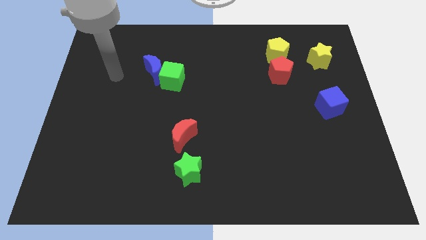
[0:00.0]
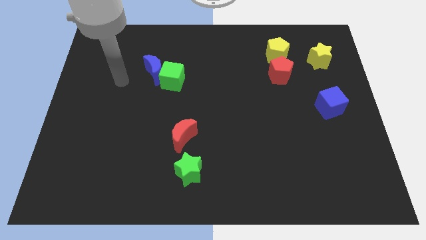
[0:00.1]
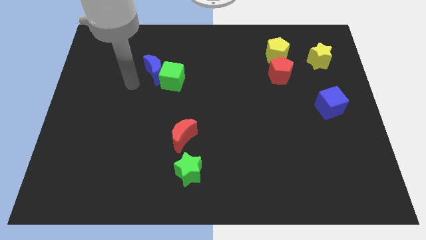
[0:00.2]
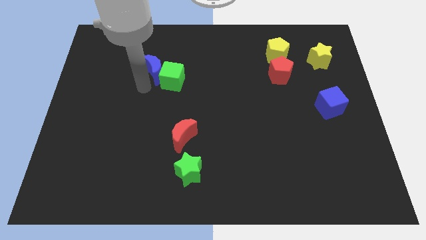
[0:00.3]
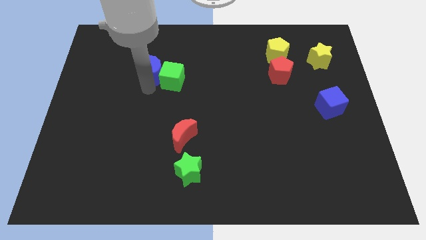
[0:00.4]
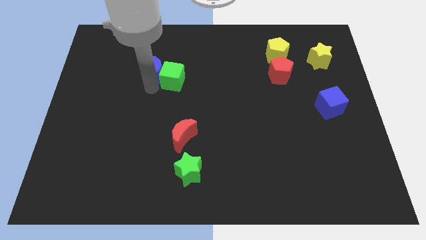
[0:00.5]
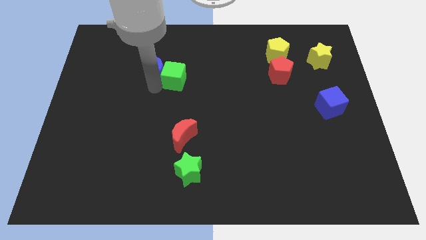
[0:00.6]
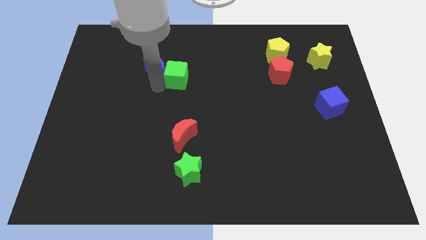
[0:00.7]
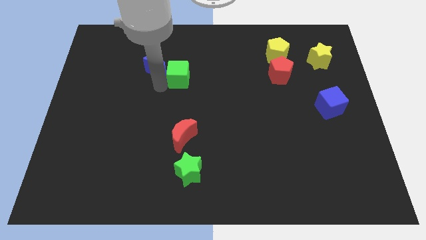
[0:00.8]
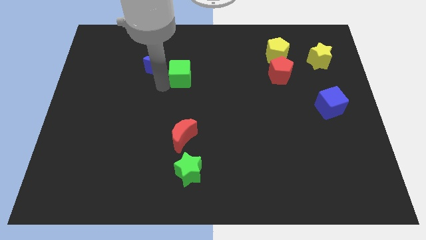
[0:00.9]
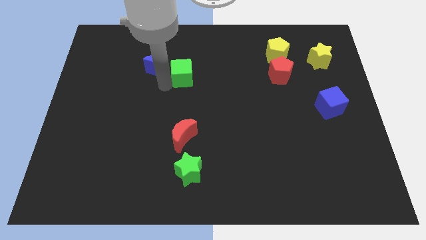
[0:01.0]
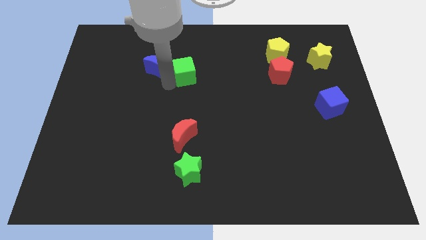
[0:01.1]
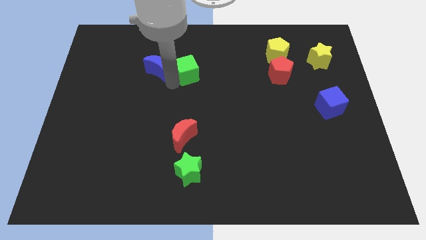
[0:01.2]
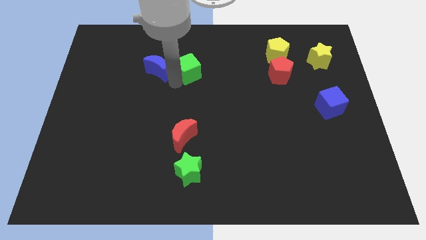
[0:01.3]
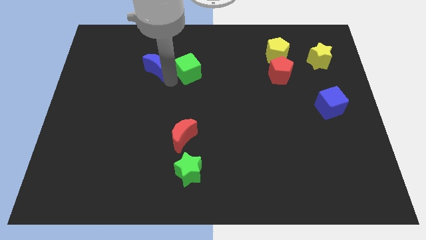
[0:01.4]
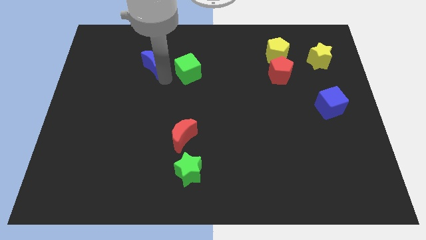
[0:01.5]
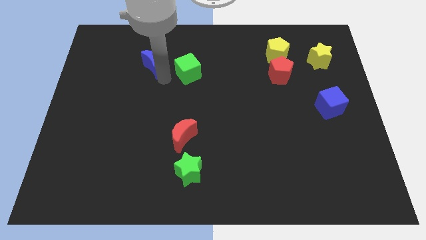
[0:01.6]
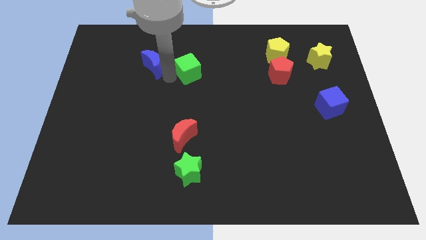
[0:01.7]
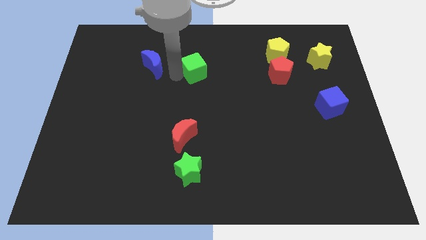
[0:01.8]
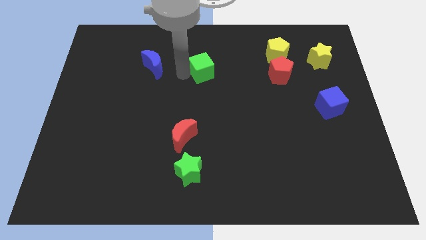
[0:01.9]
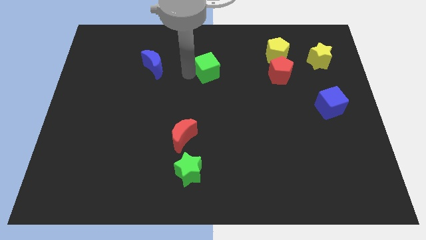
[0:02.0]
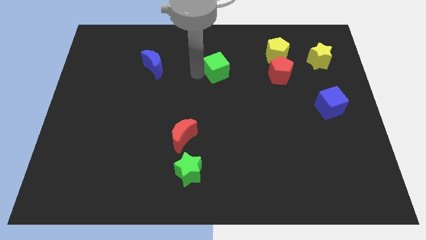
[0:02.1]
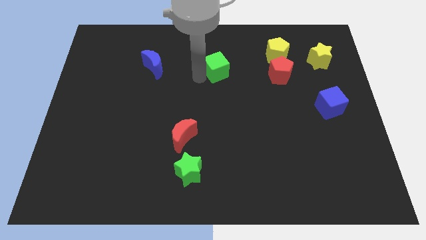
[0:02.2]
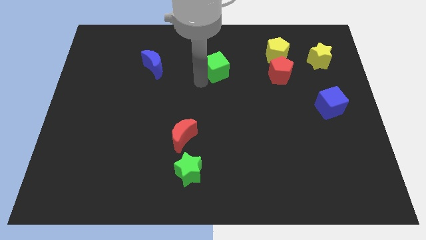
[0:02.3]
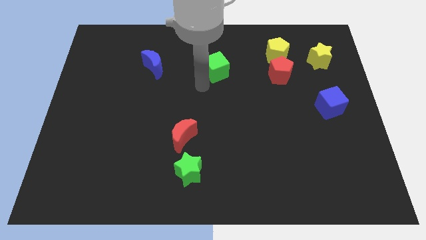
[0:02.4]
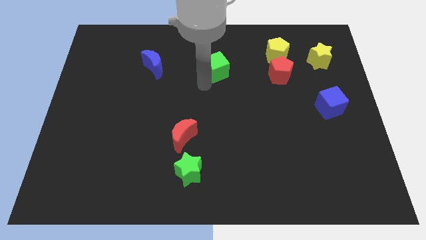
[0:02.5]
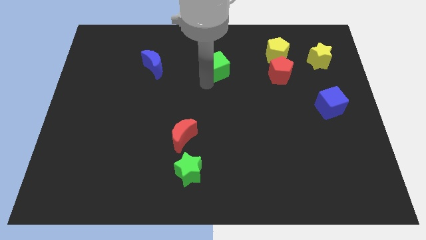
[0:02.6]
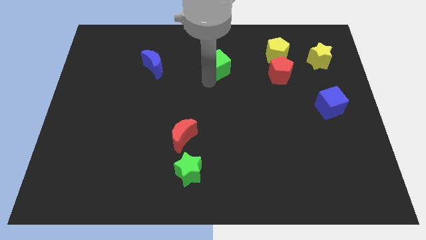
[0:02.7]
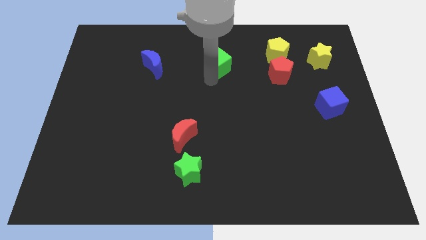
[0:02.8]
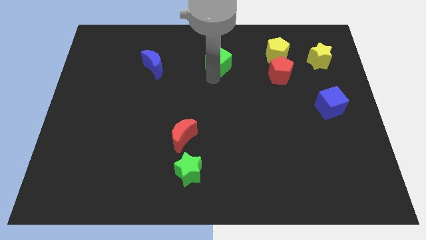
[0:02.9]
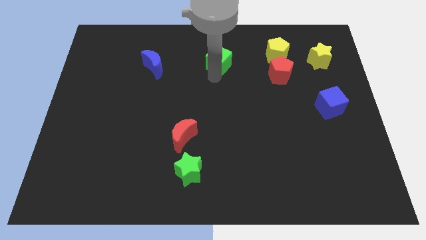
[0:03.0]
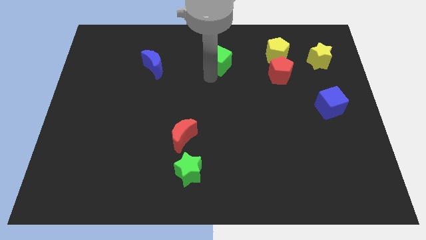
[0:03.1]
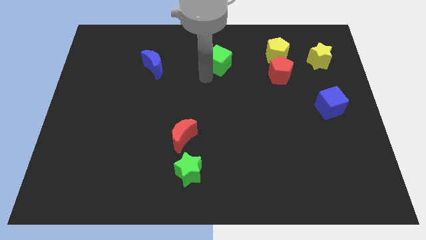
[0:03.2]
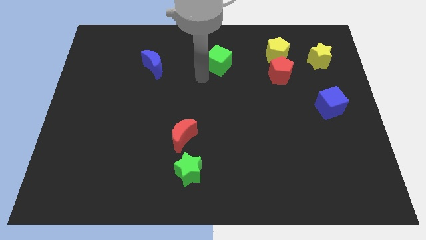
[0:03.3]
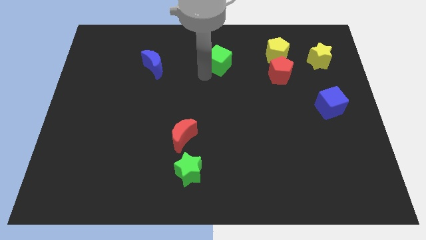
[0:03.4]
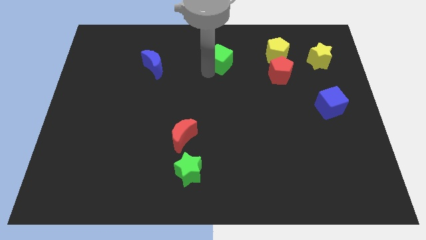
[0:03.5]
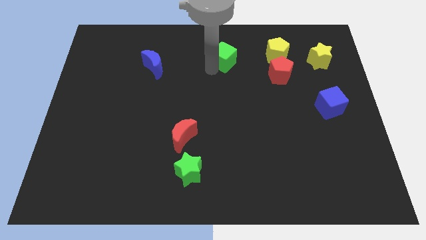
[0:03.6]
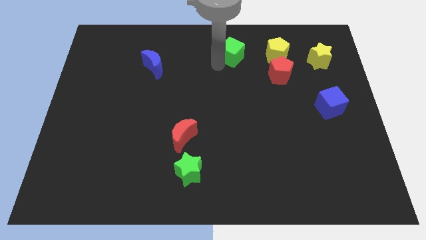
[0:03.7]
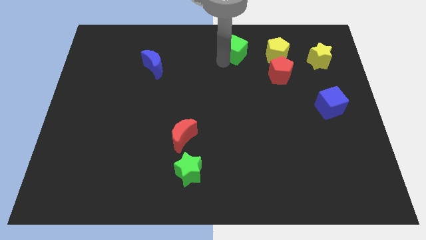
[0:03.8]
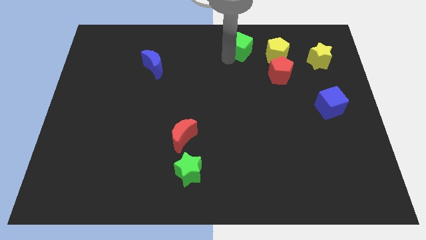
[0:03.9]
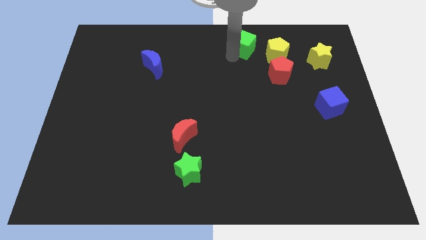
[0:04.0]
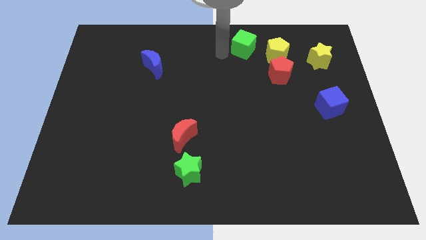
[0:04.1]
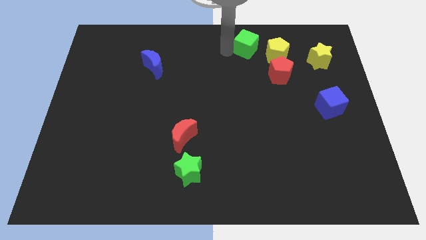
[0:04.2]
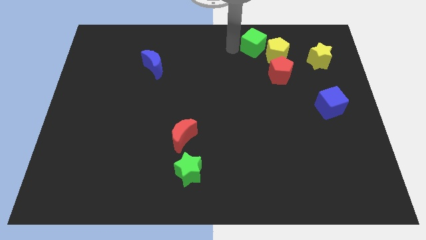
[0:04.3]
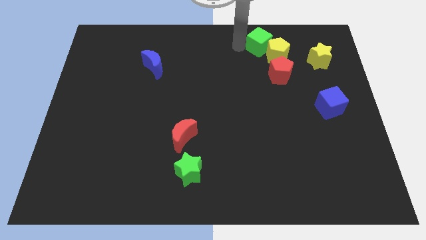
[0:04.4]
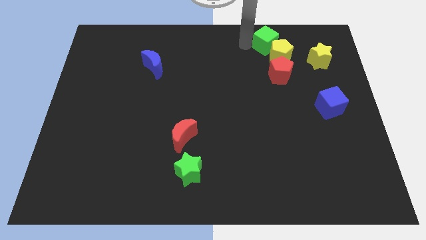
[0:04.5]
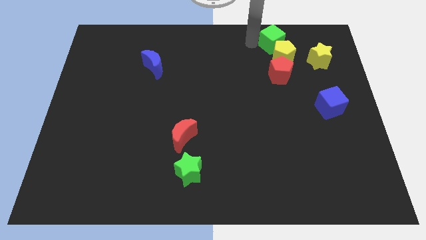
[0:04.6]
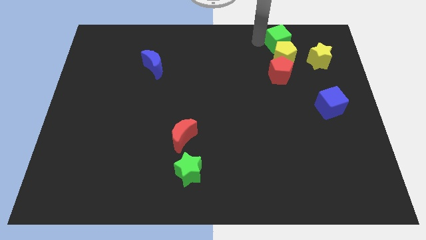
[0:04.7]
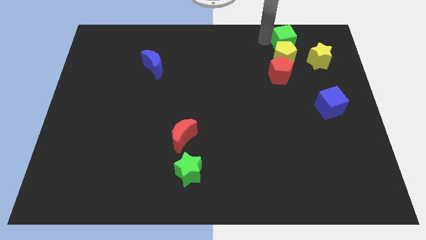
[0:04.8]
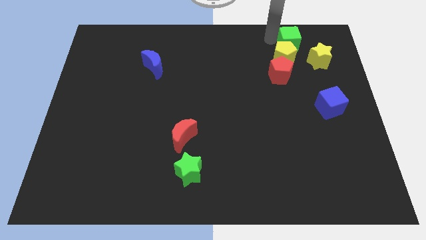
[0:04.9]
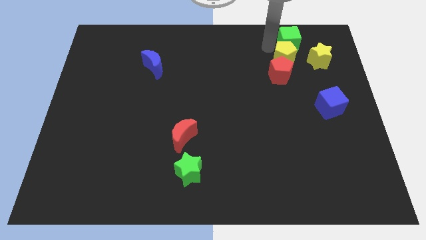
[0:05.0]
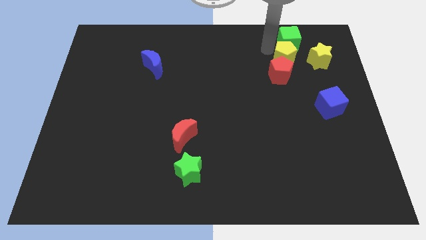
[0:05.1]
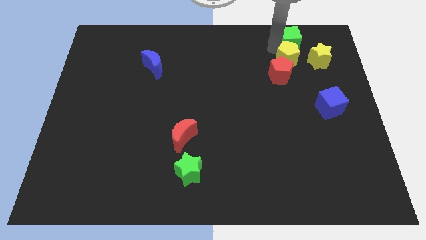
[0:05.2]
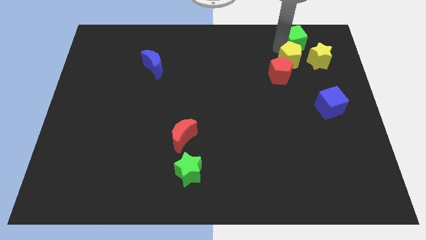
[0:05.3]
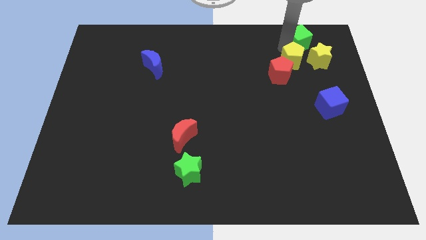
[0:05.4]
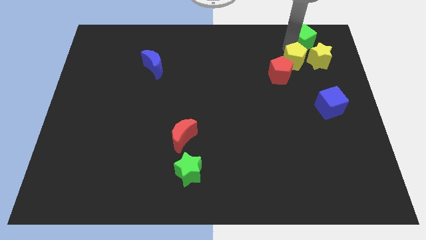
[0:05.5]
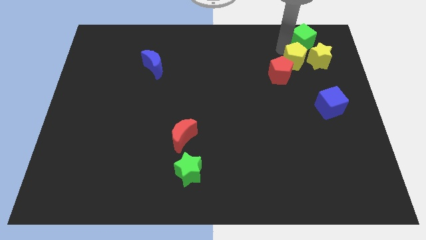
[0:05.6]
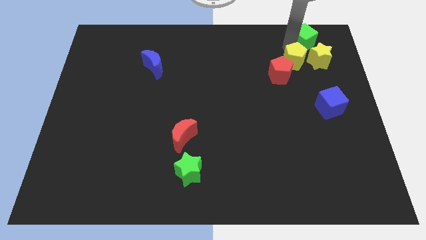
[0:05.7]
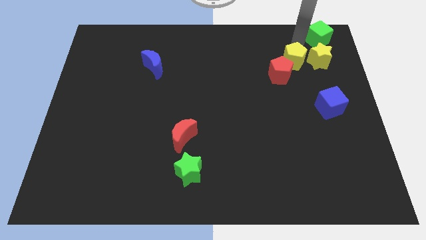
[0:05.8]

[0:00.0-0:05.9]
push the green cube to the top right
